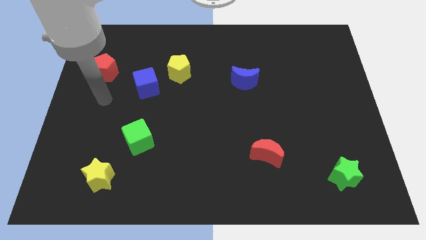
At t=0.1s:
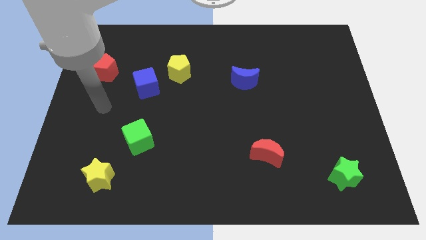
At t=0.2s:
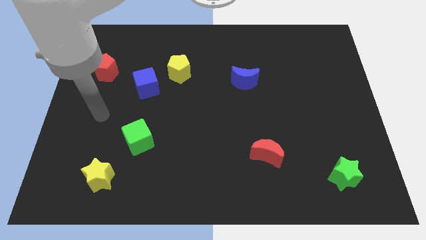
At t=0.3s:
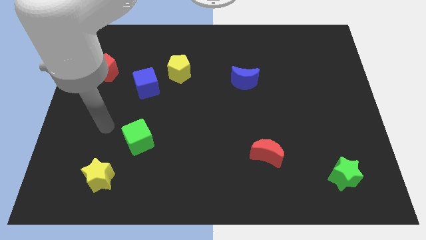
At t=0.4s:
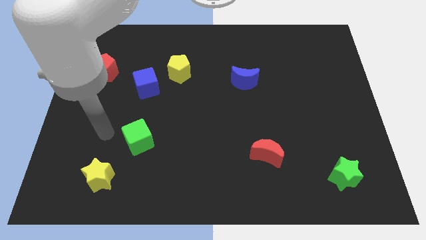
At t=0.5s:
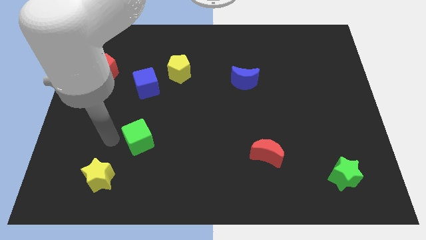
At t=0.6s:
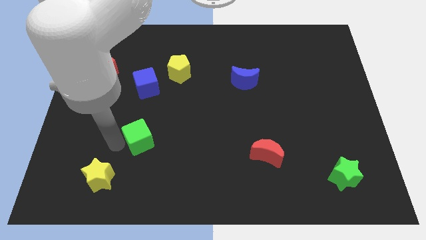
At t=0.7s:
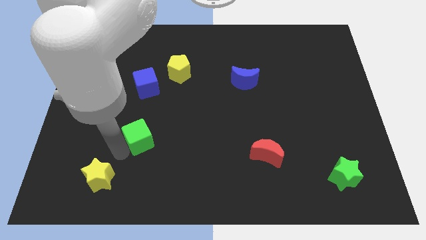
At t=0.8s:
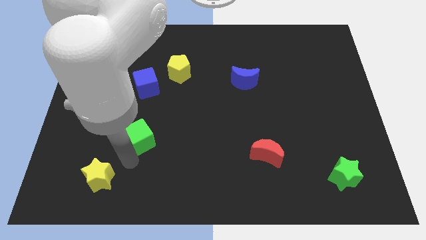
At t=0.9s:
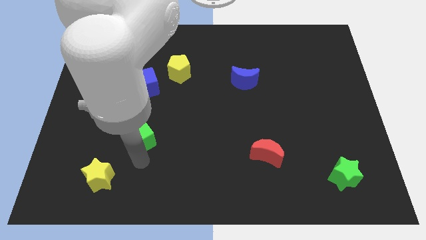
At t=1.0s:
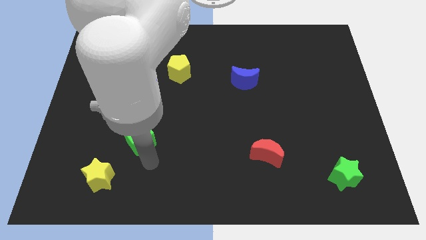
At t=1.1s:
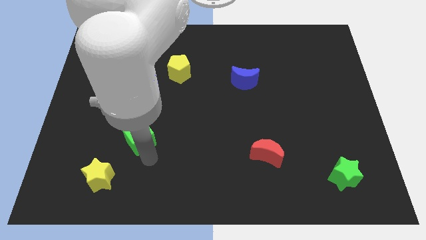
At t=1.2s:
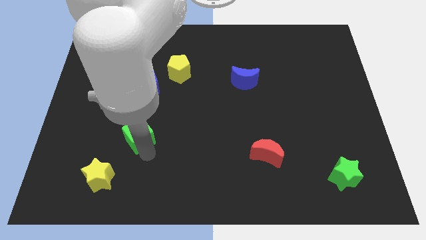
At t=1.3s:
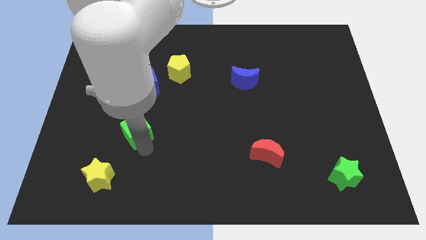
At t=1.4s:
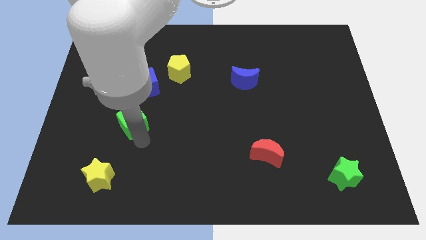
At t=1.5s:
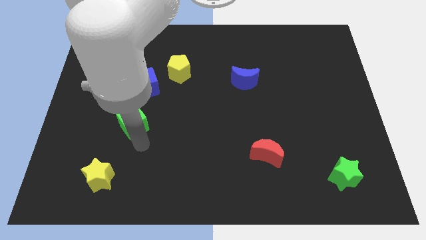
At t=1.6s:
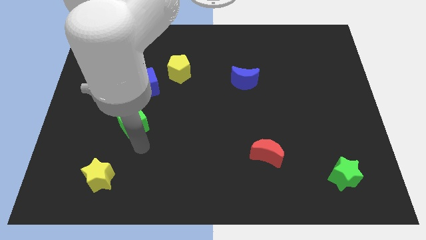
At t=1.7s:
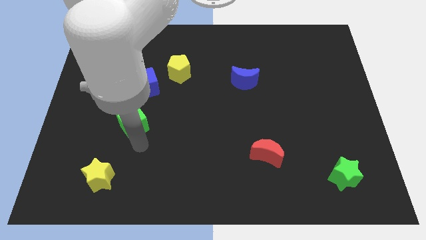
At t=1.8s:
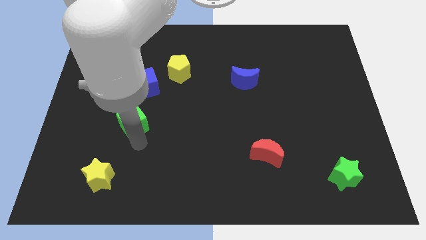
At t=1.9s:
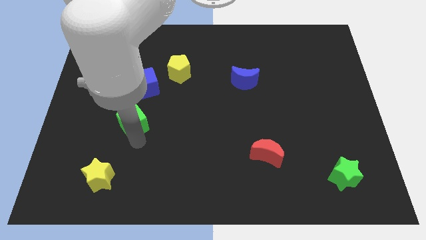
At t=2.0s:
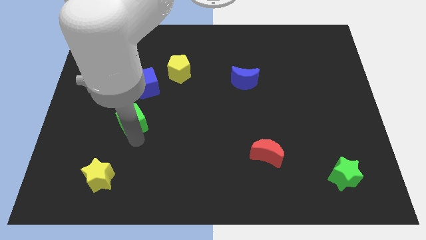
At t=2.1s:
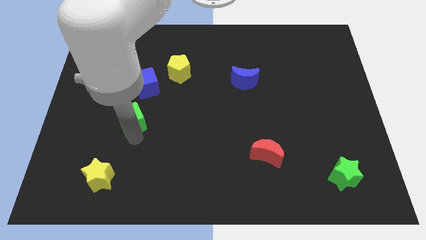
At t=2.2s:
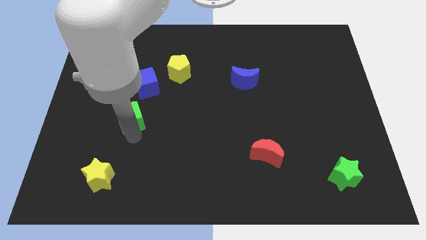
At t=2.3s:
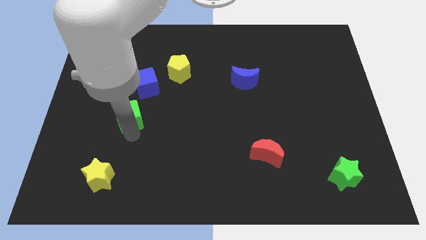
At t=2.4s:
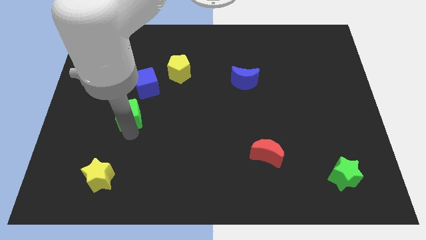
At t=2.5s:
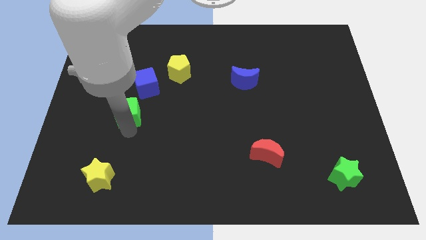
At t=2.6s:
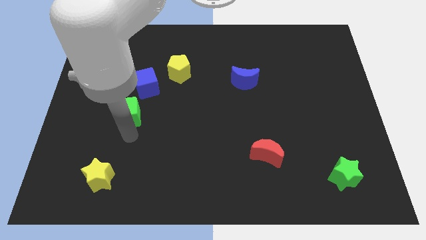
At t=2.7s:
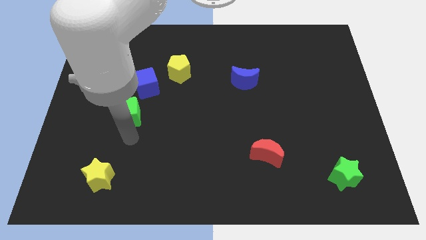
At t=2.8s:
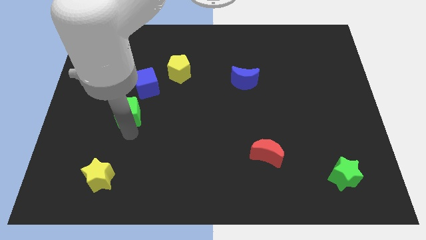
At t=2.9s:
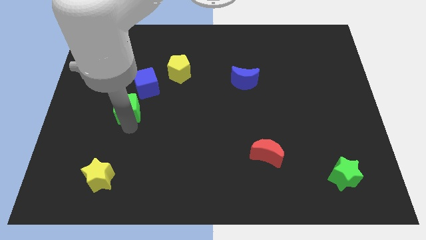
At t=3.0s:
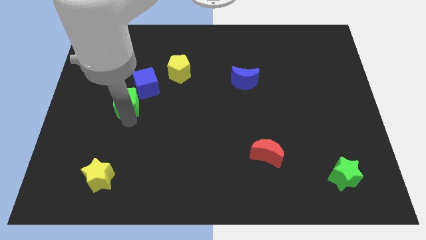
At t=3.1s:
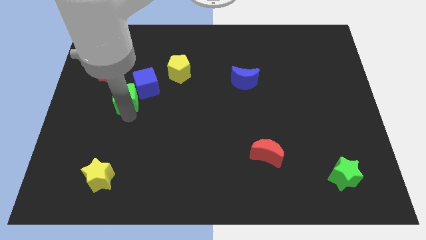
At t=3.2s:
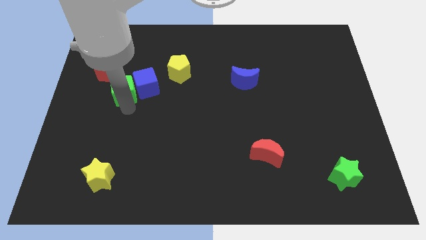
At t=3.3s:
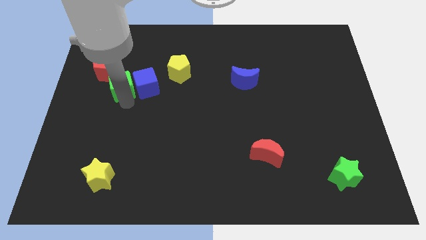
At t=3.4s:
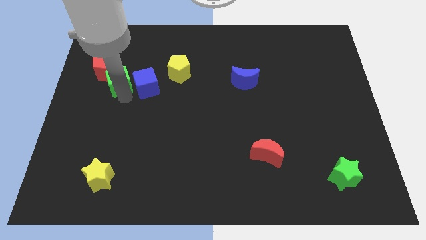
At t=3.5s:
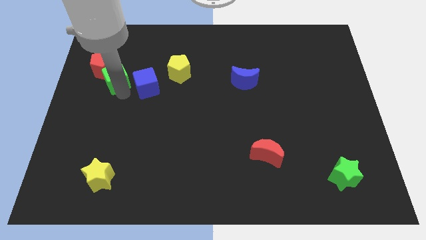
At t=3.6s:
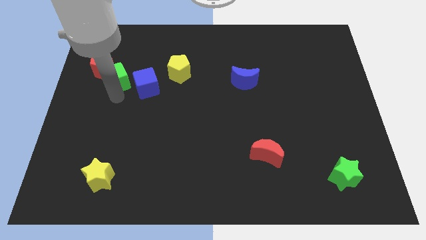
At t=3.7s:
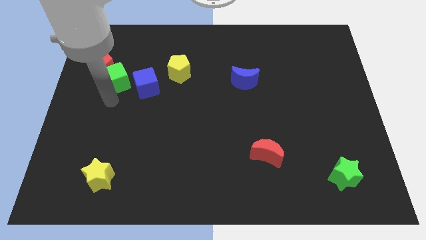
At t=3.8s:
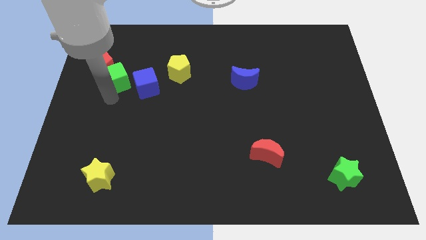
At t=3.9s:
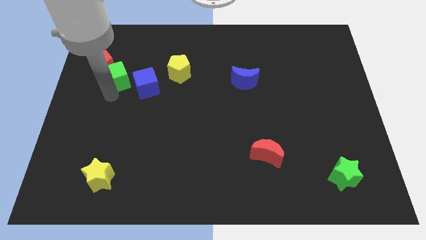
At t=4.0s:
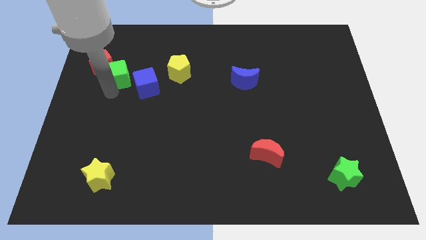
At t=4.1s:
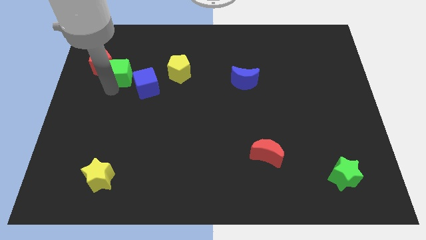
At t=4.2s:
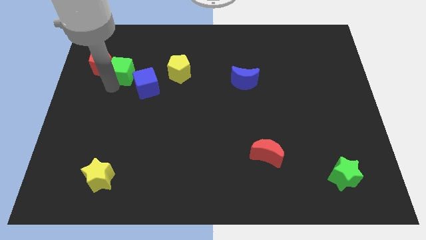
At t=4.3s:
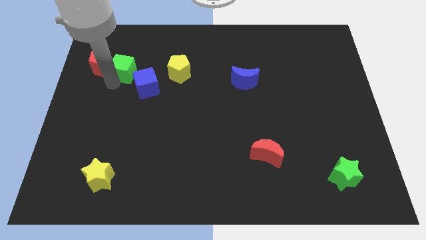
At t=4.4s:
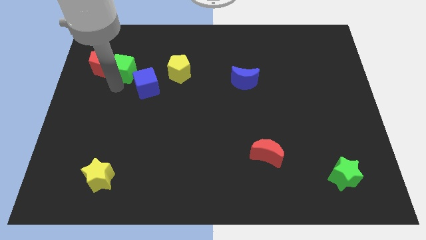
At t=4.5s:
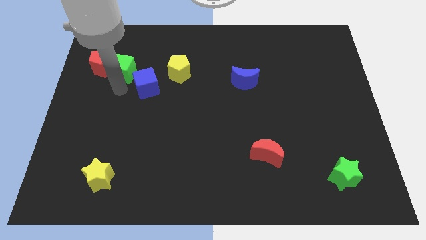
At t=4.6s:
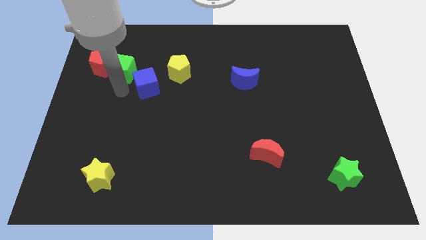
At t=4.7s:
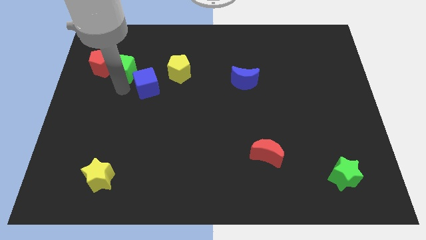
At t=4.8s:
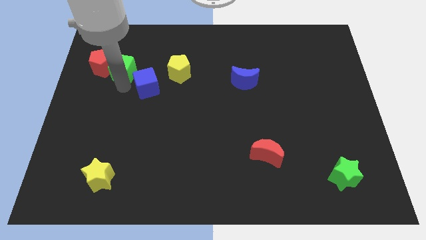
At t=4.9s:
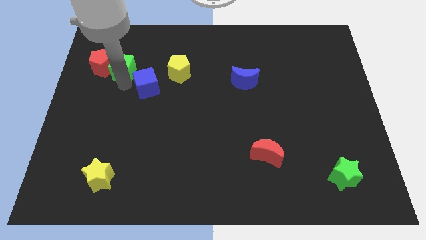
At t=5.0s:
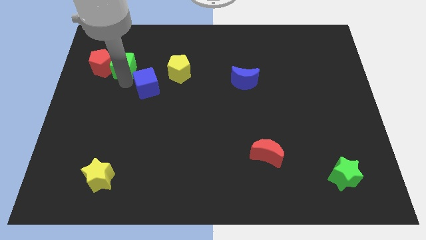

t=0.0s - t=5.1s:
push the green cube to the top right side of the red pentagon

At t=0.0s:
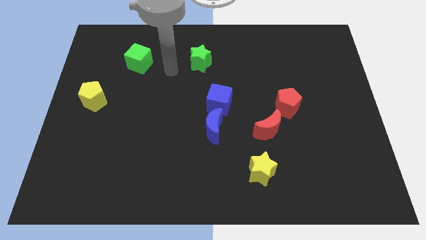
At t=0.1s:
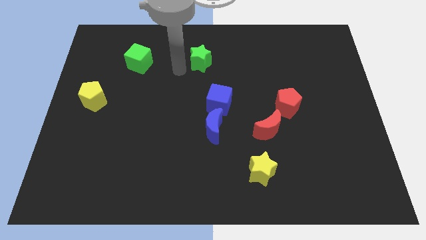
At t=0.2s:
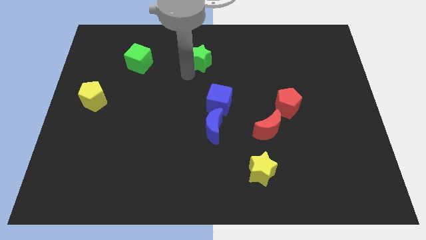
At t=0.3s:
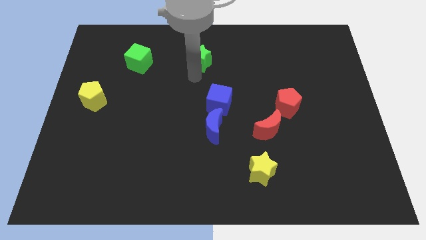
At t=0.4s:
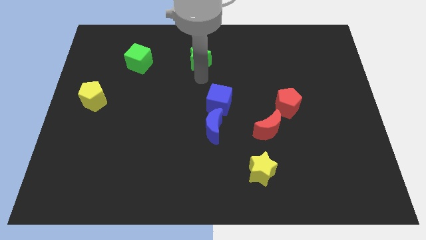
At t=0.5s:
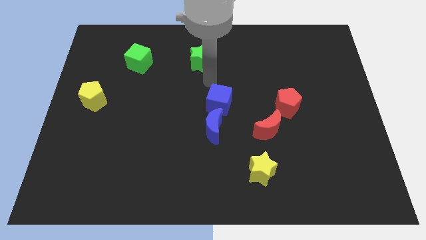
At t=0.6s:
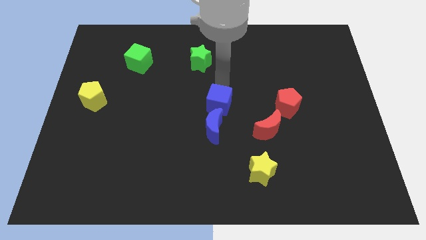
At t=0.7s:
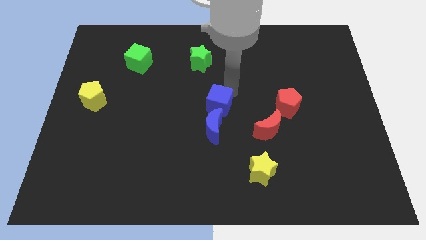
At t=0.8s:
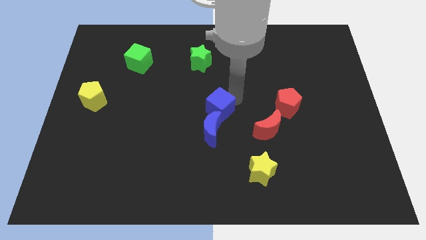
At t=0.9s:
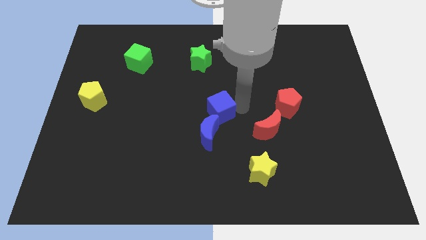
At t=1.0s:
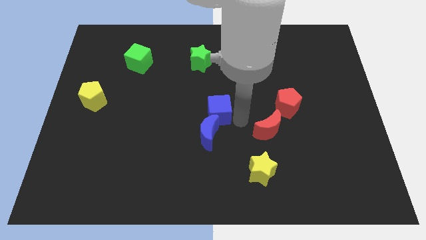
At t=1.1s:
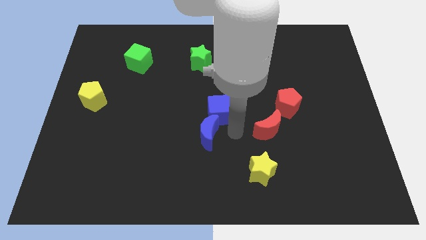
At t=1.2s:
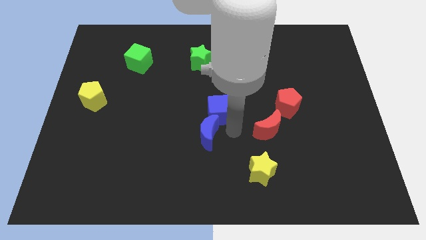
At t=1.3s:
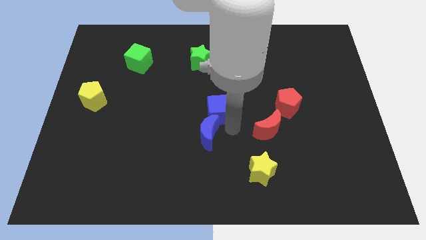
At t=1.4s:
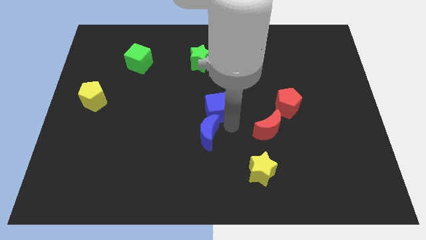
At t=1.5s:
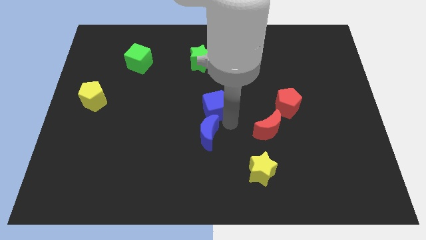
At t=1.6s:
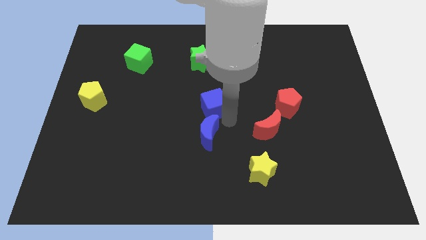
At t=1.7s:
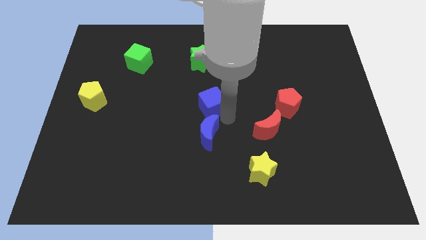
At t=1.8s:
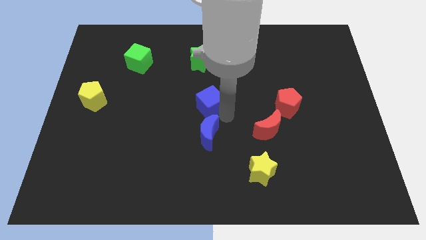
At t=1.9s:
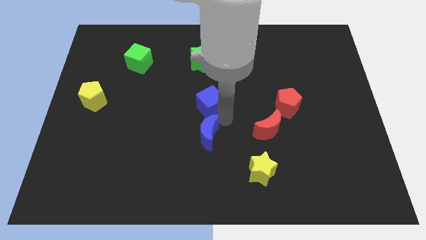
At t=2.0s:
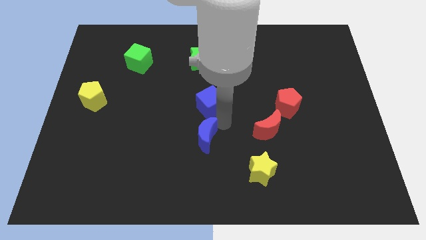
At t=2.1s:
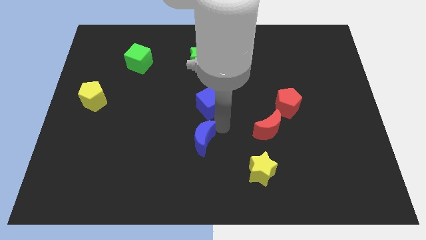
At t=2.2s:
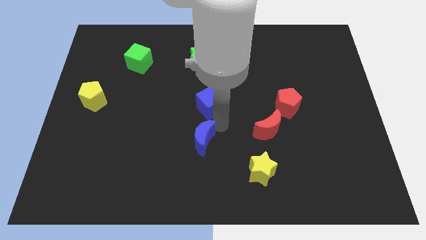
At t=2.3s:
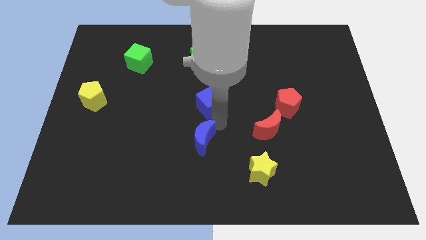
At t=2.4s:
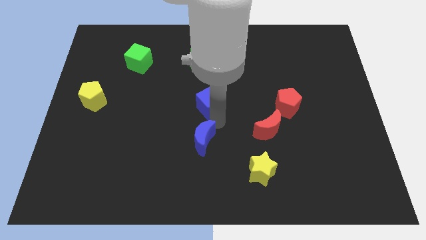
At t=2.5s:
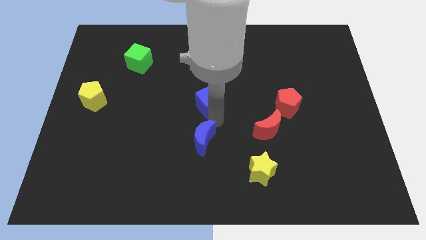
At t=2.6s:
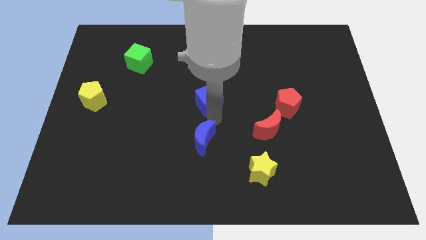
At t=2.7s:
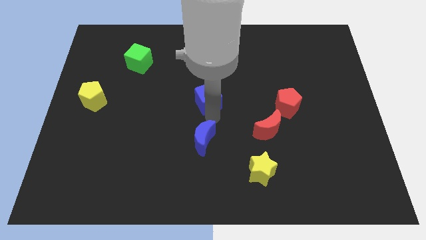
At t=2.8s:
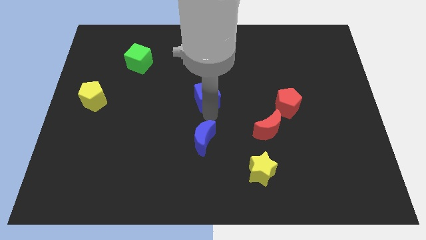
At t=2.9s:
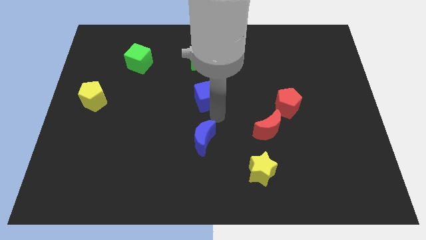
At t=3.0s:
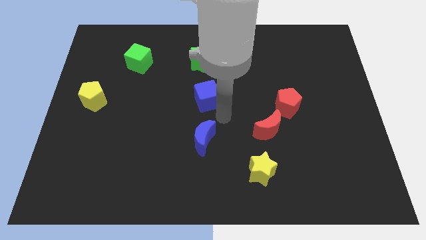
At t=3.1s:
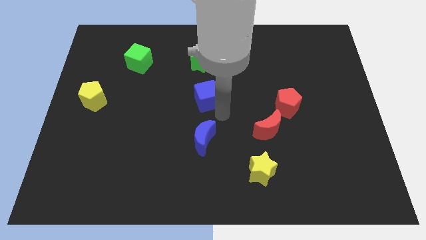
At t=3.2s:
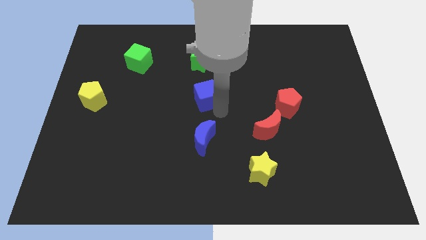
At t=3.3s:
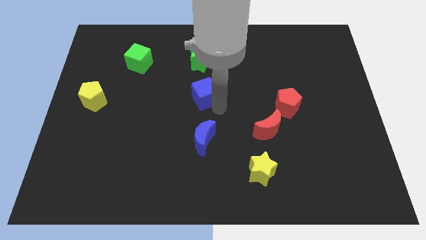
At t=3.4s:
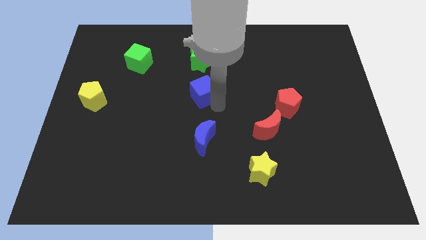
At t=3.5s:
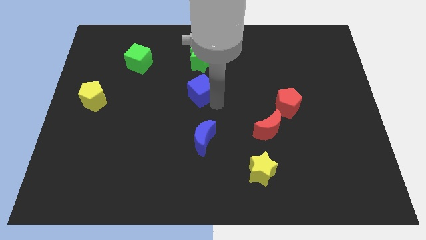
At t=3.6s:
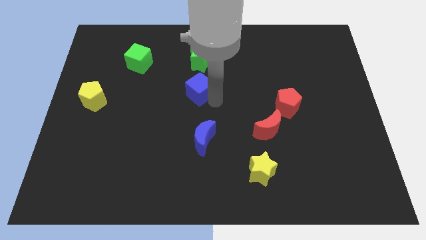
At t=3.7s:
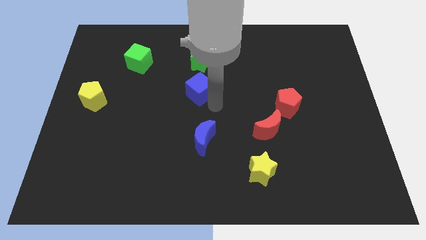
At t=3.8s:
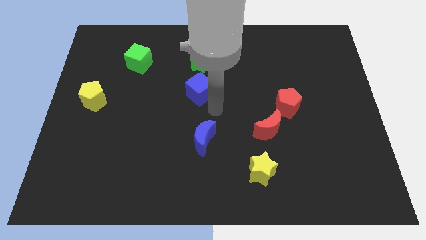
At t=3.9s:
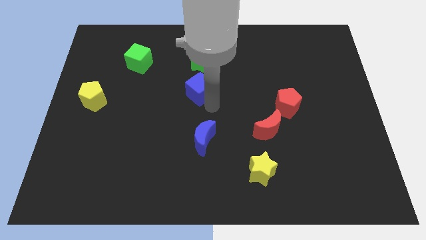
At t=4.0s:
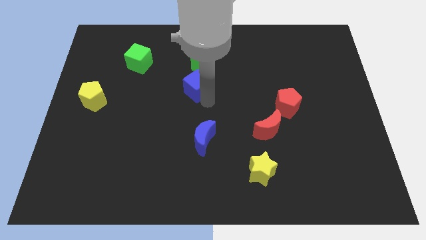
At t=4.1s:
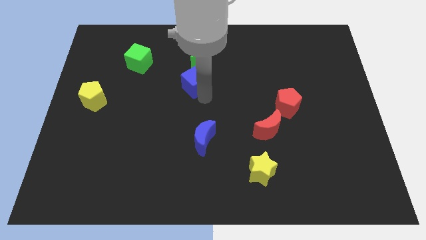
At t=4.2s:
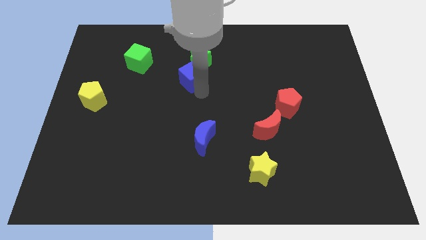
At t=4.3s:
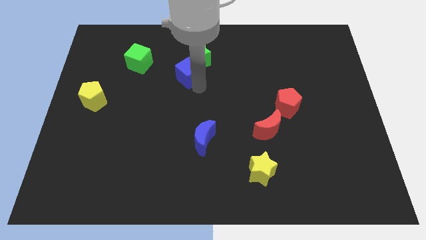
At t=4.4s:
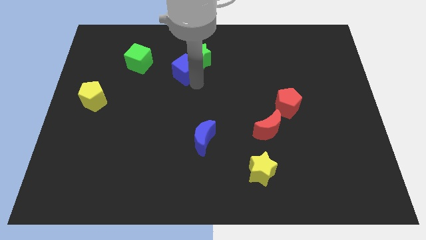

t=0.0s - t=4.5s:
put the blue cube to the left of the green star
